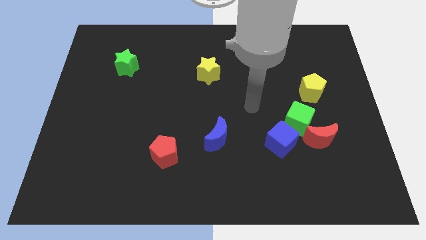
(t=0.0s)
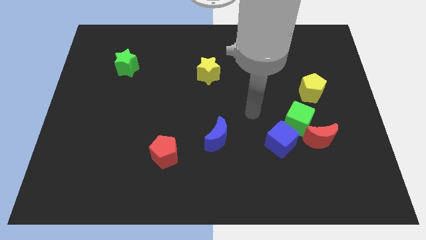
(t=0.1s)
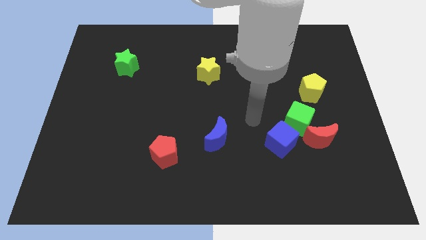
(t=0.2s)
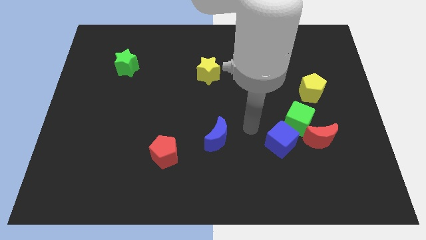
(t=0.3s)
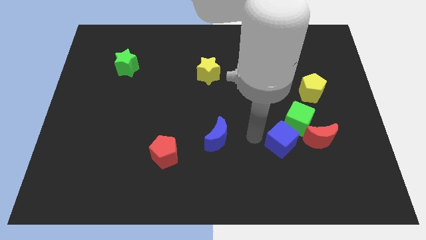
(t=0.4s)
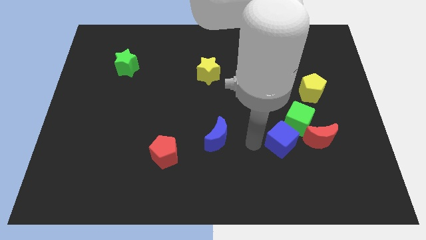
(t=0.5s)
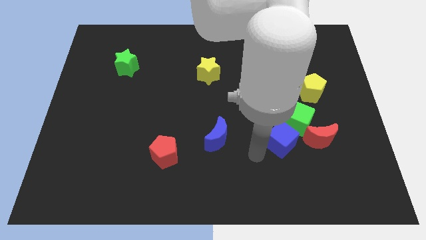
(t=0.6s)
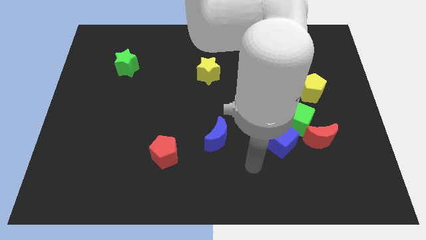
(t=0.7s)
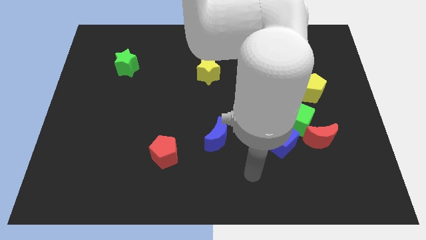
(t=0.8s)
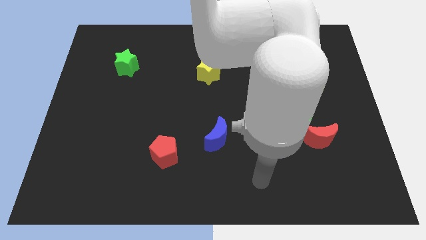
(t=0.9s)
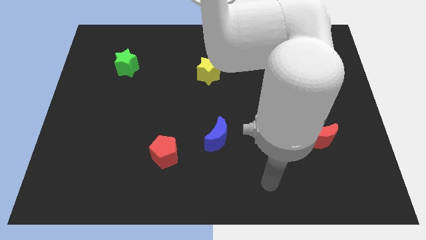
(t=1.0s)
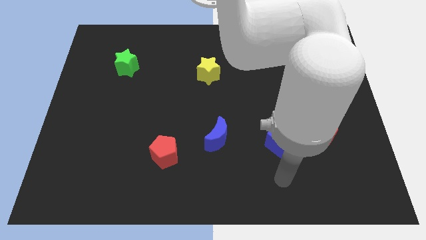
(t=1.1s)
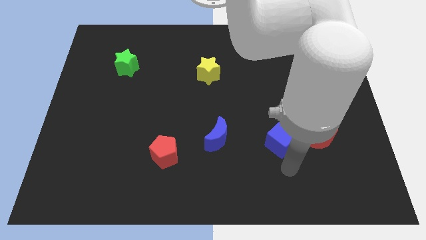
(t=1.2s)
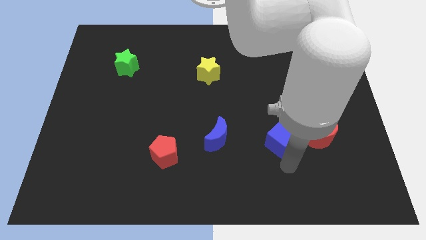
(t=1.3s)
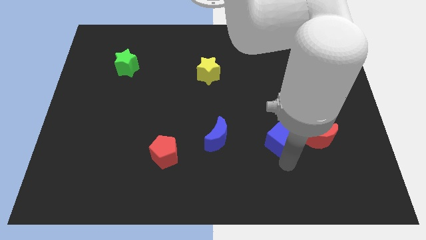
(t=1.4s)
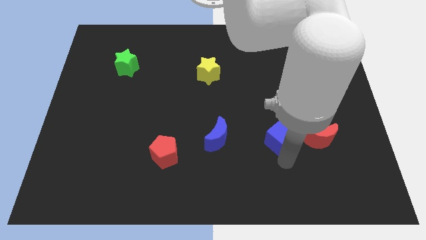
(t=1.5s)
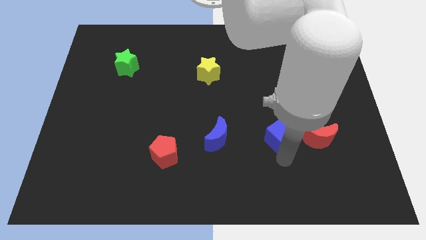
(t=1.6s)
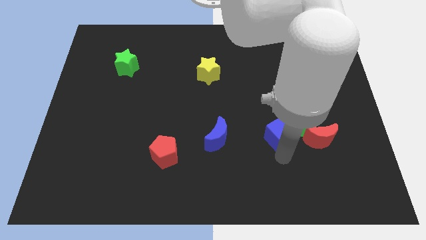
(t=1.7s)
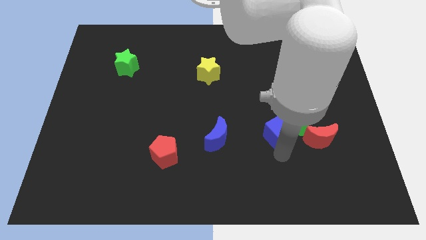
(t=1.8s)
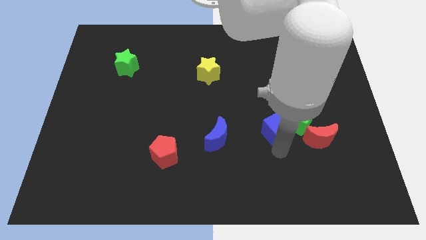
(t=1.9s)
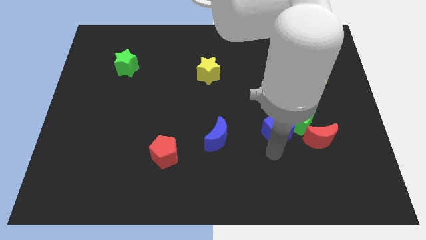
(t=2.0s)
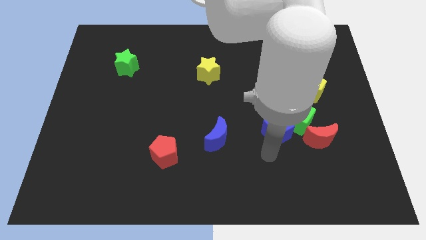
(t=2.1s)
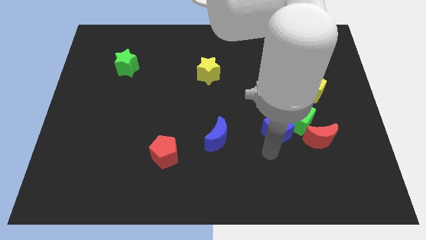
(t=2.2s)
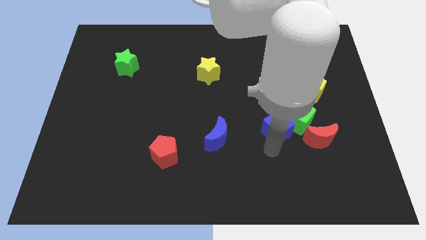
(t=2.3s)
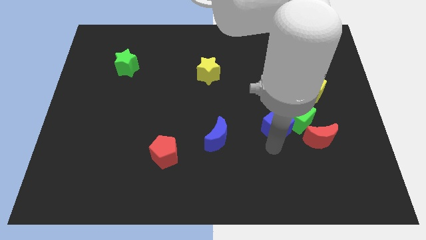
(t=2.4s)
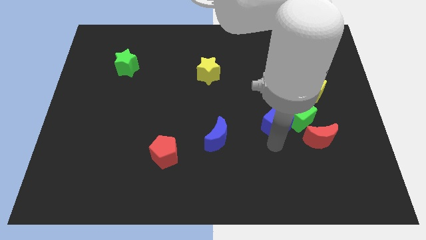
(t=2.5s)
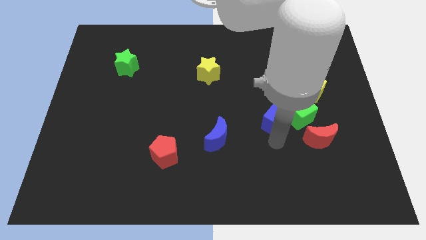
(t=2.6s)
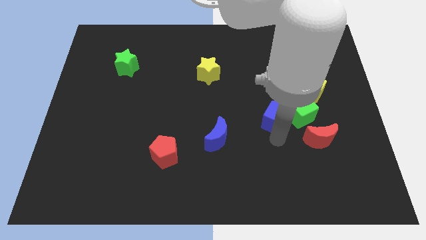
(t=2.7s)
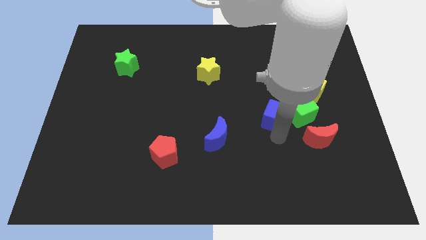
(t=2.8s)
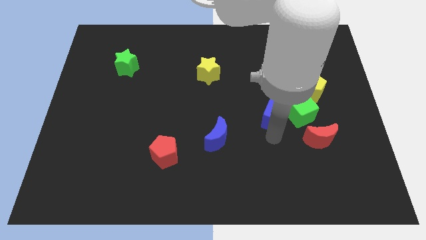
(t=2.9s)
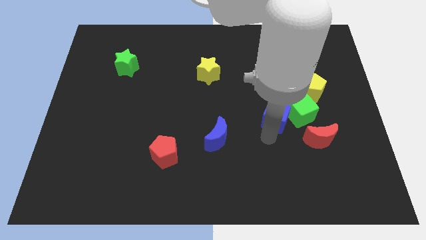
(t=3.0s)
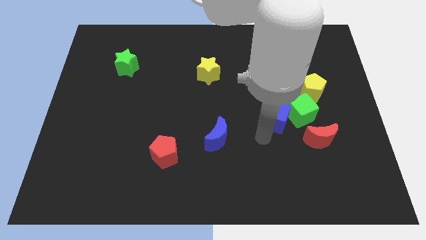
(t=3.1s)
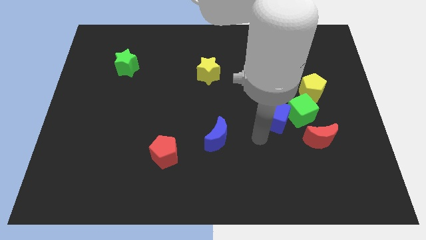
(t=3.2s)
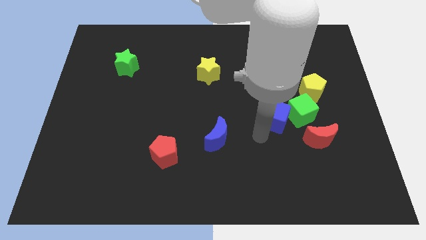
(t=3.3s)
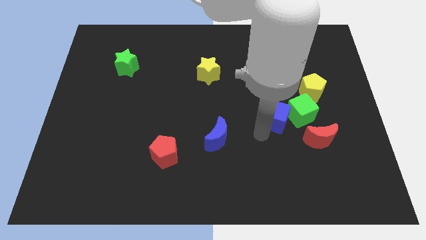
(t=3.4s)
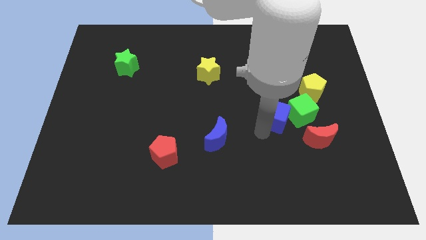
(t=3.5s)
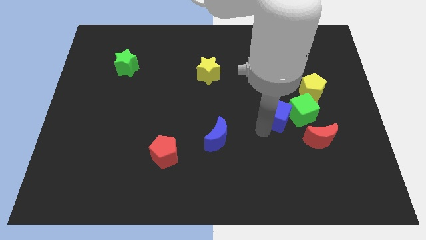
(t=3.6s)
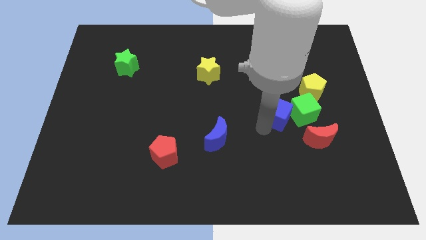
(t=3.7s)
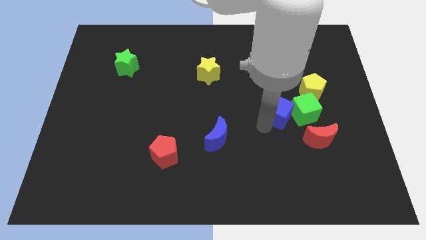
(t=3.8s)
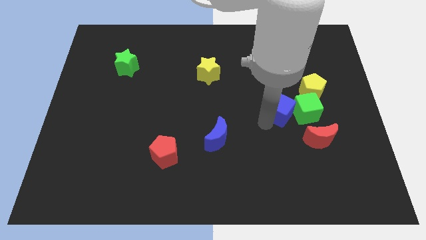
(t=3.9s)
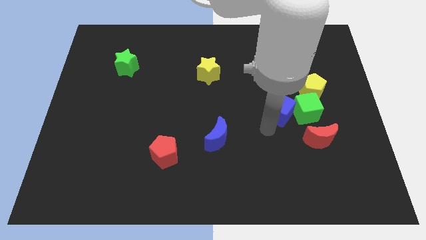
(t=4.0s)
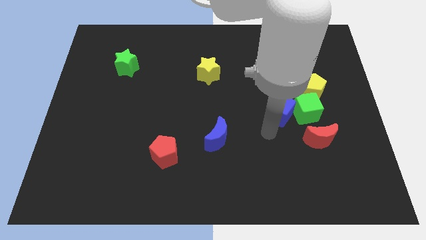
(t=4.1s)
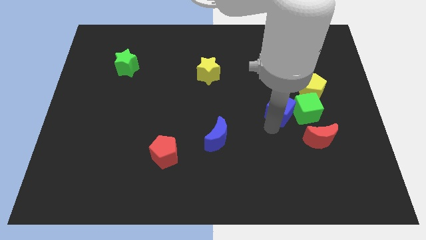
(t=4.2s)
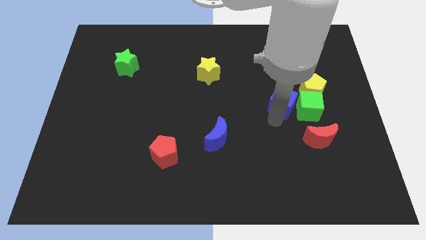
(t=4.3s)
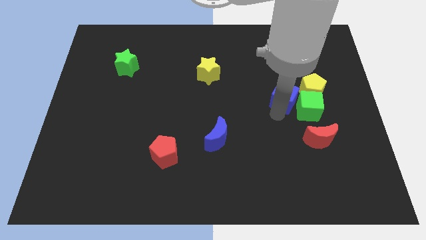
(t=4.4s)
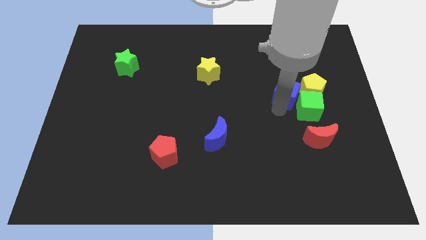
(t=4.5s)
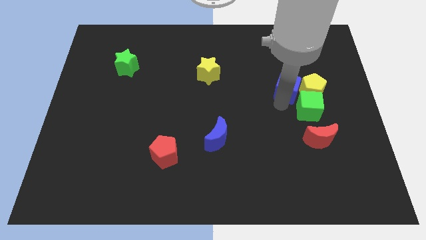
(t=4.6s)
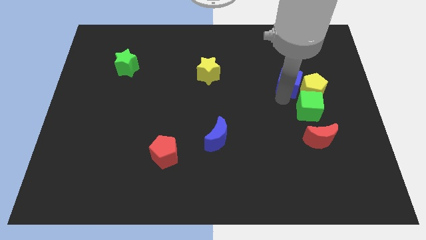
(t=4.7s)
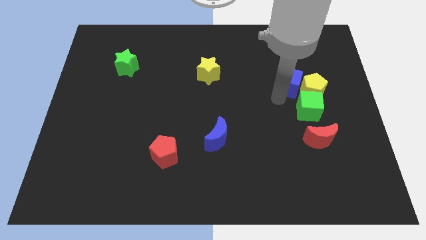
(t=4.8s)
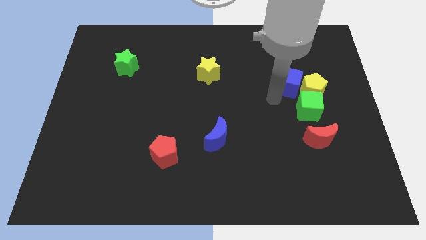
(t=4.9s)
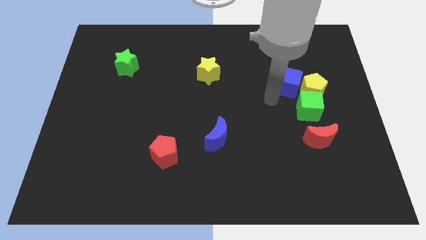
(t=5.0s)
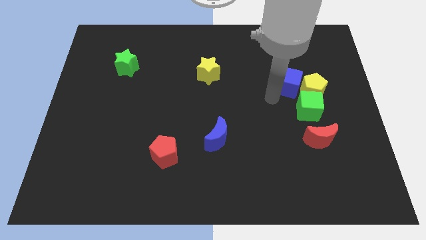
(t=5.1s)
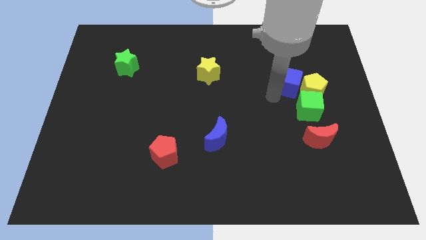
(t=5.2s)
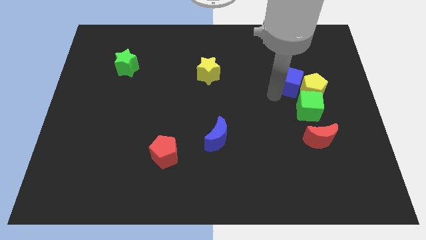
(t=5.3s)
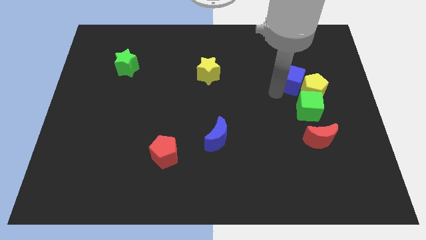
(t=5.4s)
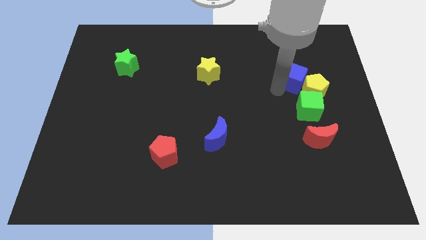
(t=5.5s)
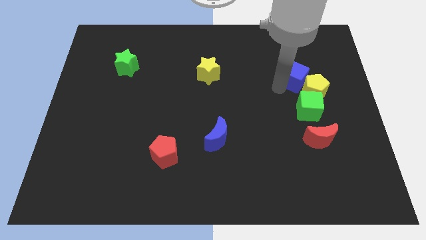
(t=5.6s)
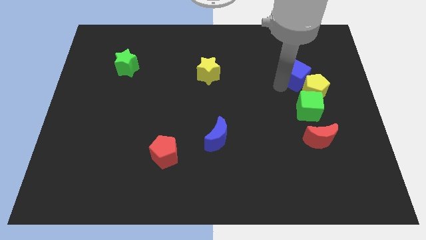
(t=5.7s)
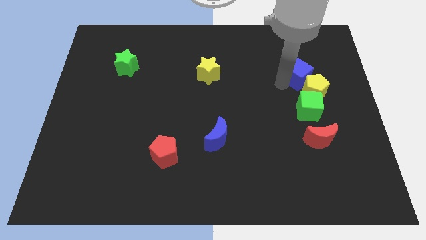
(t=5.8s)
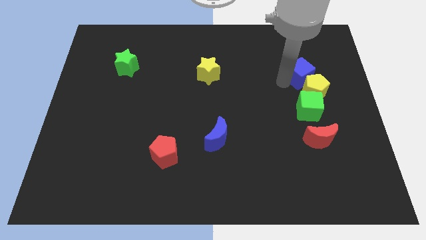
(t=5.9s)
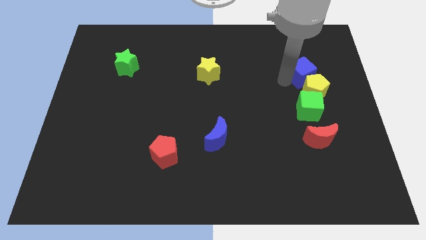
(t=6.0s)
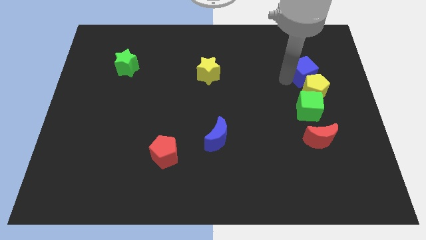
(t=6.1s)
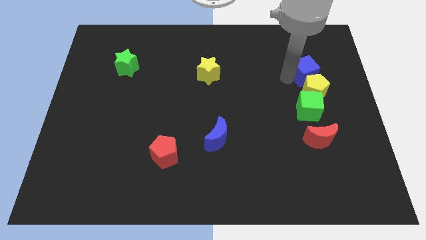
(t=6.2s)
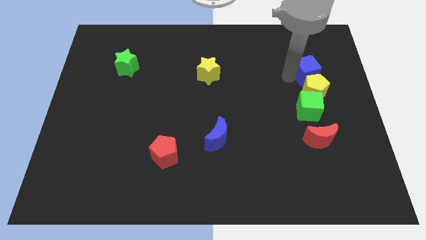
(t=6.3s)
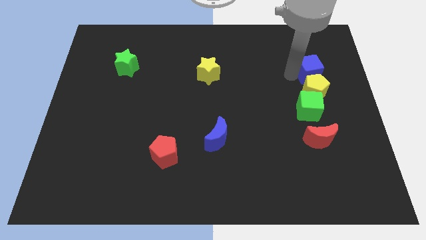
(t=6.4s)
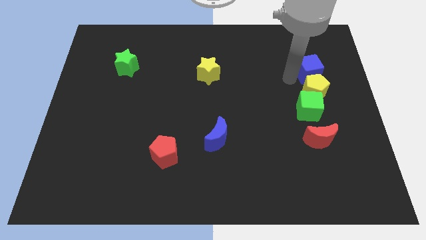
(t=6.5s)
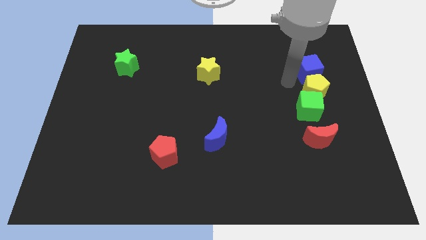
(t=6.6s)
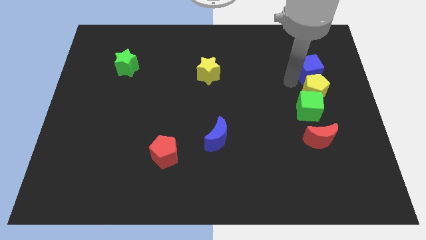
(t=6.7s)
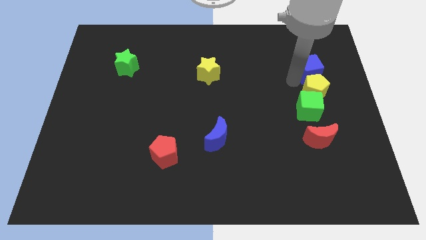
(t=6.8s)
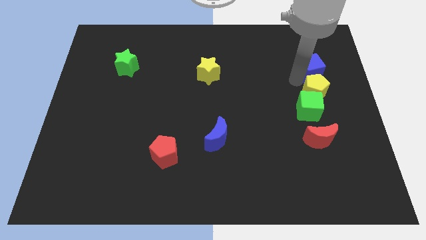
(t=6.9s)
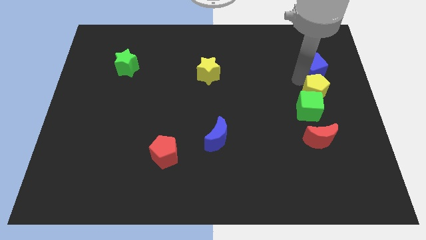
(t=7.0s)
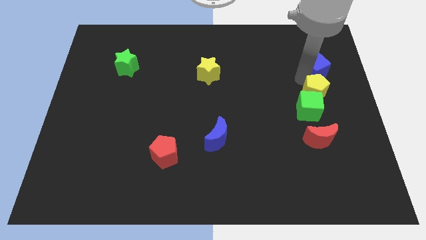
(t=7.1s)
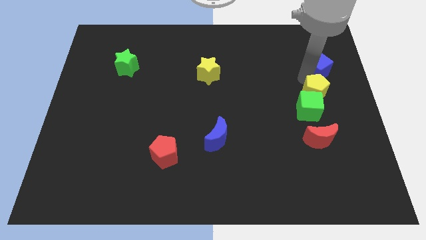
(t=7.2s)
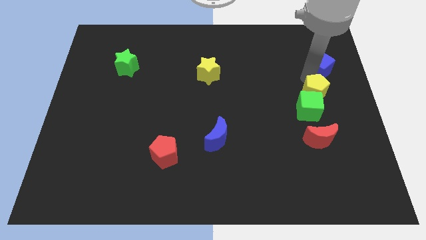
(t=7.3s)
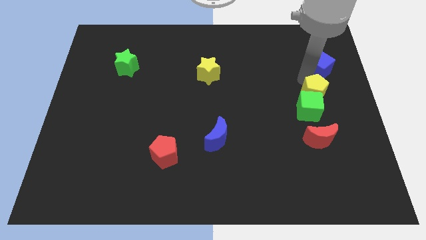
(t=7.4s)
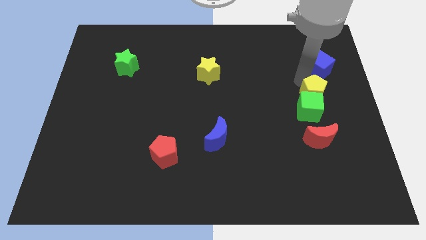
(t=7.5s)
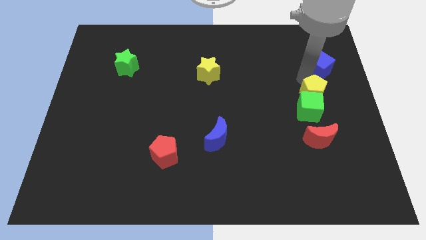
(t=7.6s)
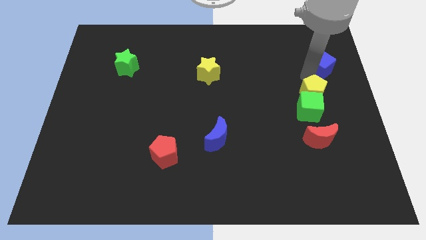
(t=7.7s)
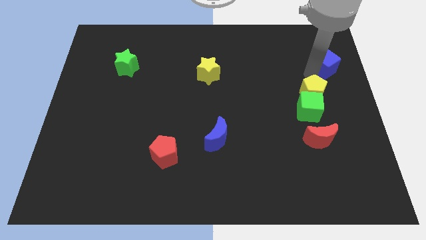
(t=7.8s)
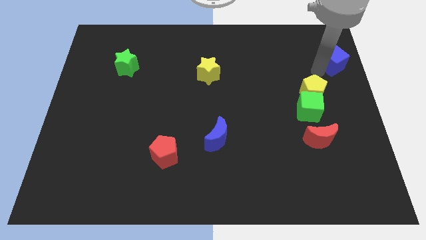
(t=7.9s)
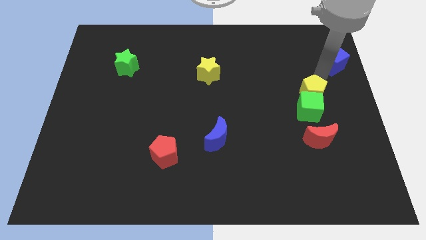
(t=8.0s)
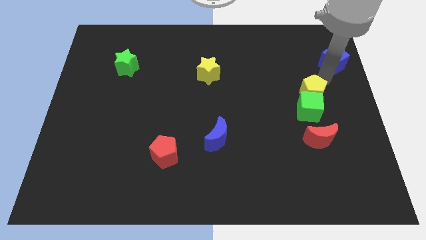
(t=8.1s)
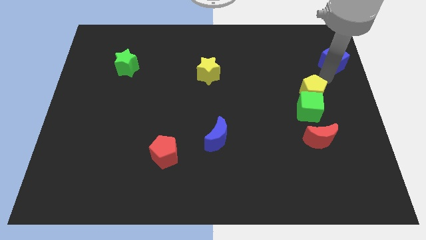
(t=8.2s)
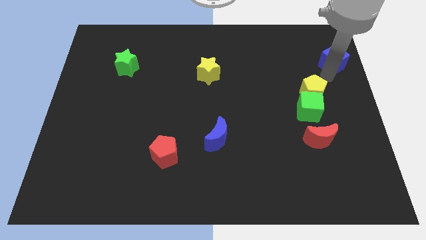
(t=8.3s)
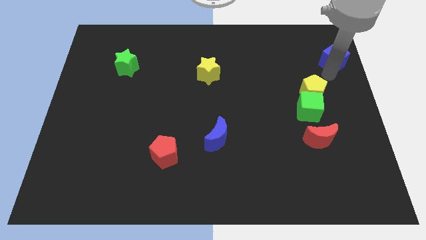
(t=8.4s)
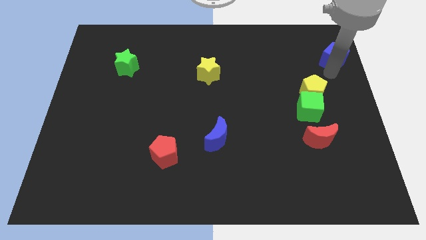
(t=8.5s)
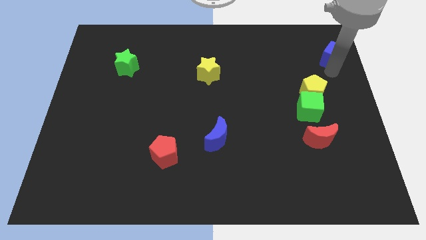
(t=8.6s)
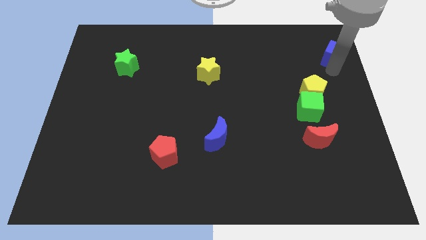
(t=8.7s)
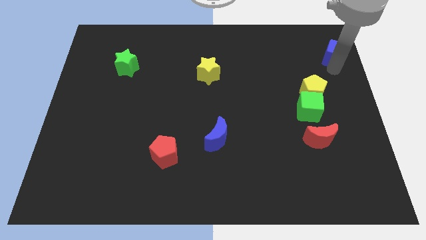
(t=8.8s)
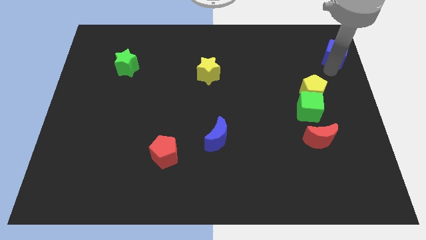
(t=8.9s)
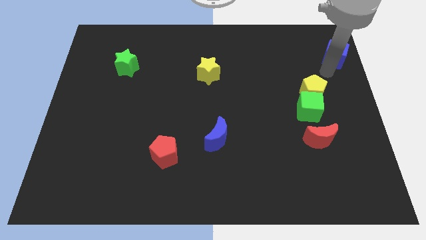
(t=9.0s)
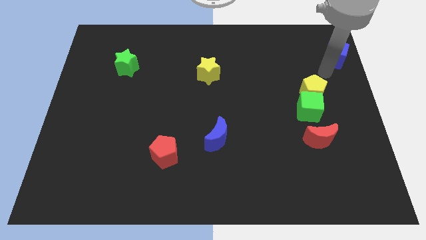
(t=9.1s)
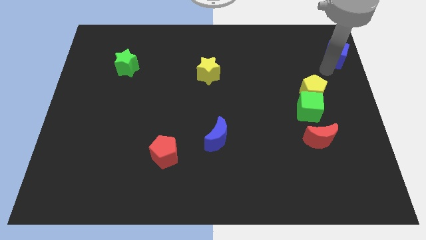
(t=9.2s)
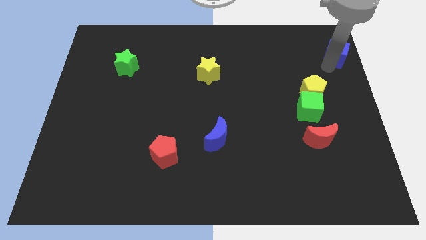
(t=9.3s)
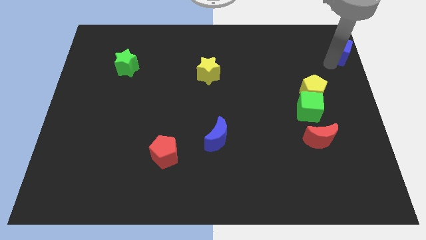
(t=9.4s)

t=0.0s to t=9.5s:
move the blue cube to the top right of the board
